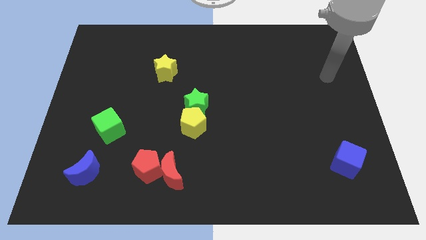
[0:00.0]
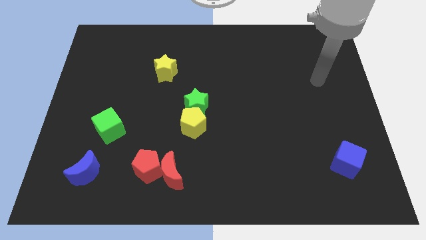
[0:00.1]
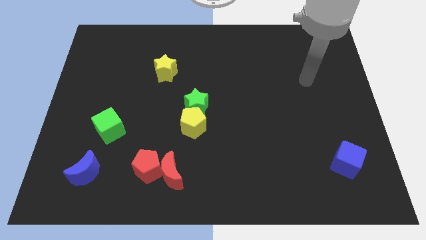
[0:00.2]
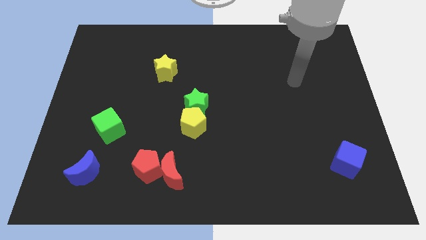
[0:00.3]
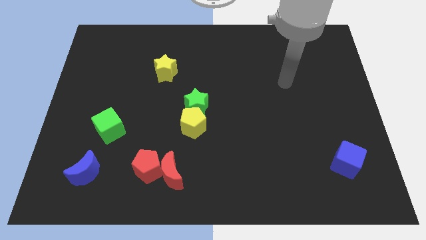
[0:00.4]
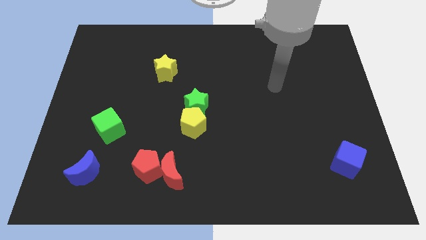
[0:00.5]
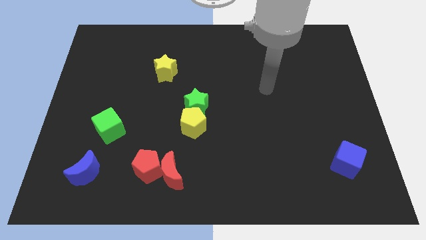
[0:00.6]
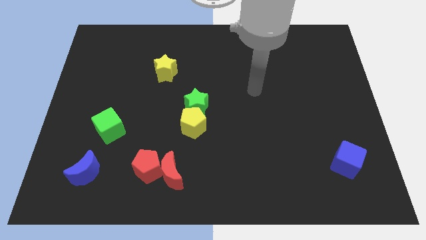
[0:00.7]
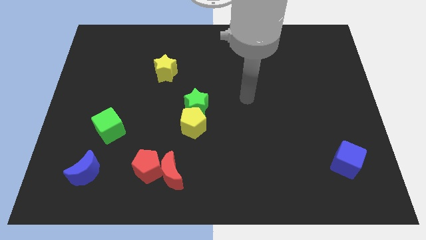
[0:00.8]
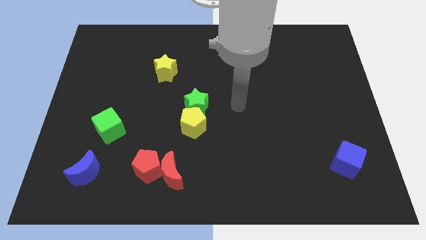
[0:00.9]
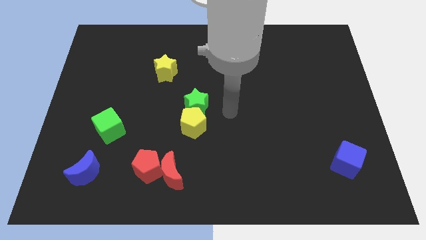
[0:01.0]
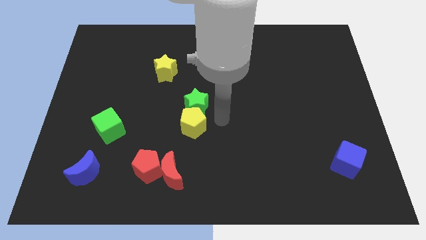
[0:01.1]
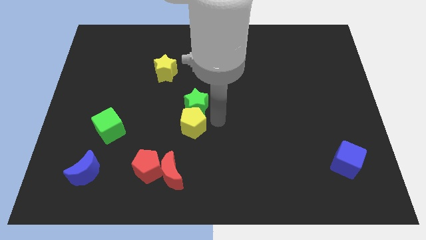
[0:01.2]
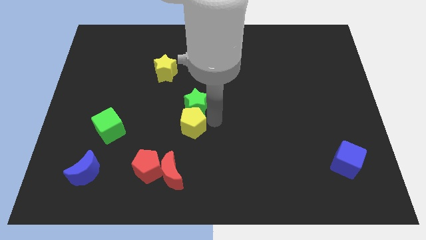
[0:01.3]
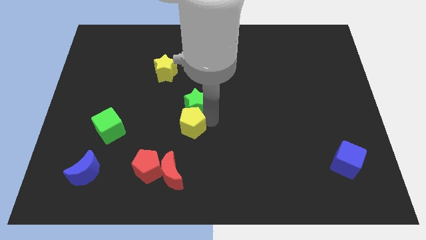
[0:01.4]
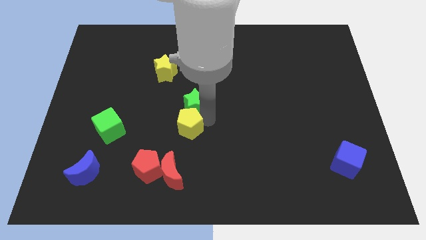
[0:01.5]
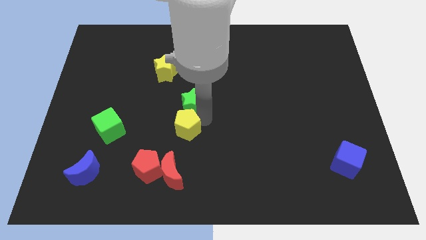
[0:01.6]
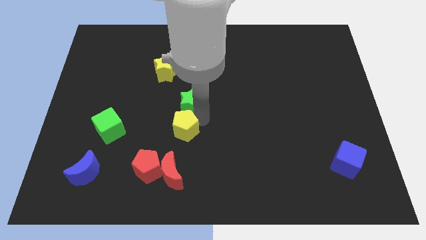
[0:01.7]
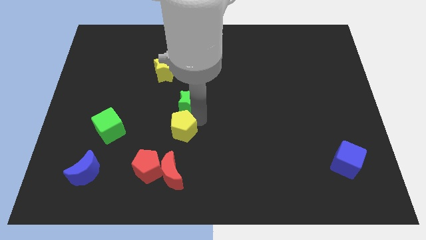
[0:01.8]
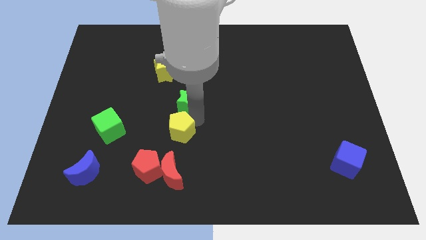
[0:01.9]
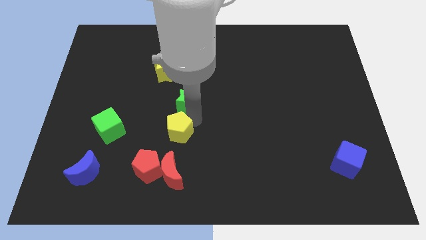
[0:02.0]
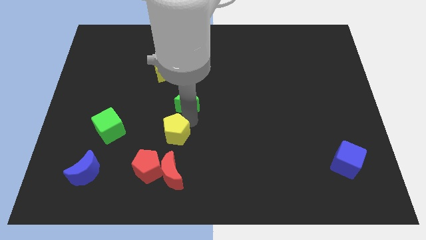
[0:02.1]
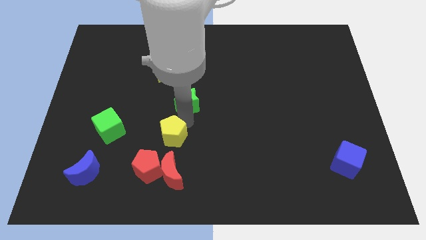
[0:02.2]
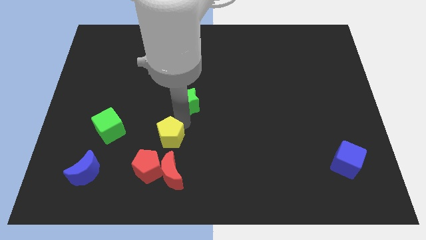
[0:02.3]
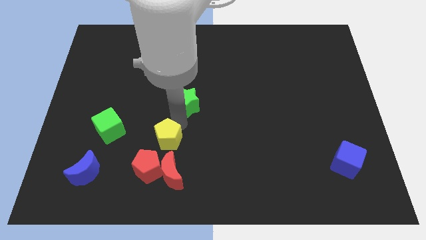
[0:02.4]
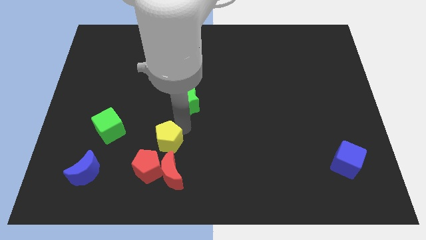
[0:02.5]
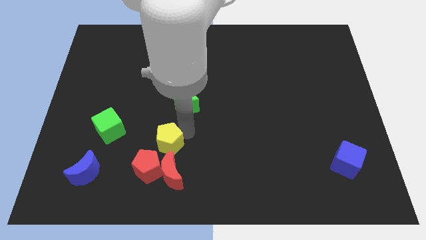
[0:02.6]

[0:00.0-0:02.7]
slightly move the yellow pentagon downwards and then left

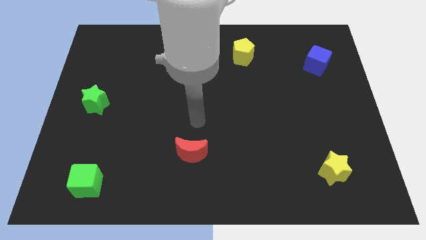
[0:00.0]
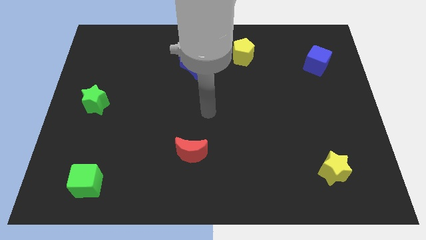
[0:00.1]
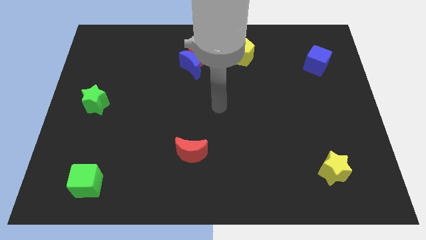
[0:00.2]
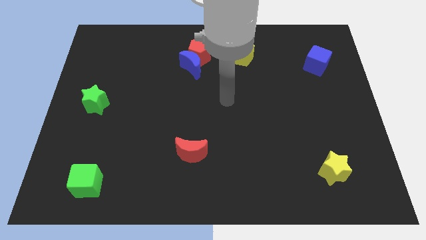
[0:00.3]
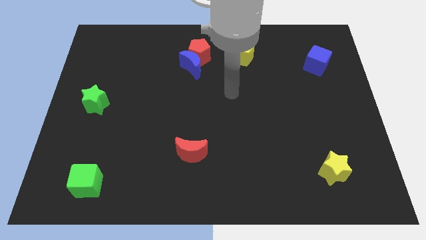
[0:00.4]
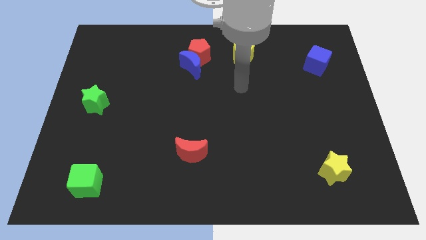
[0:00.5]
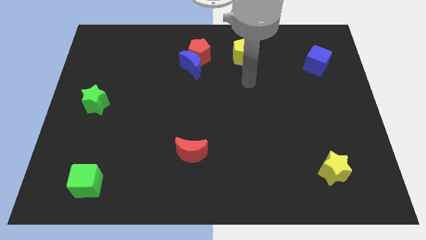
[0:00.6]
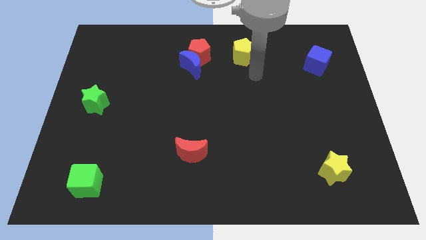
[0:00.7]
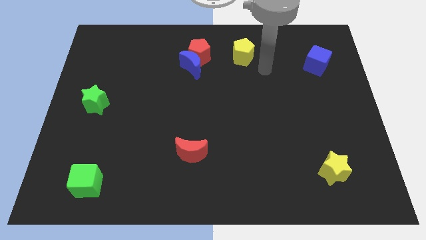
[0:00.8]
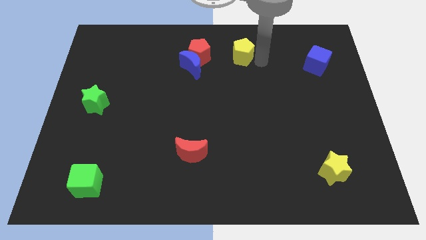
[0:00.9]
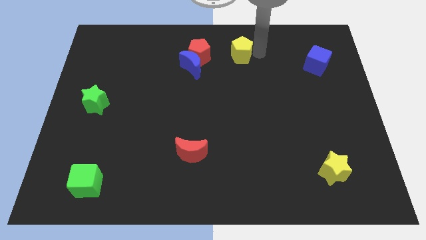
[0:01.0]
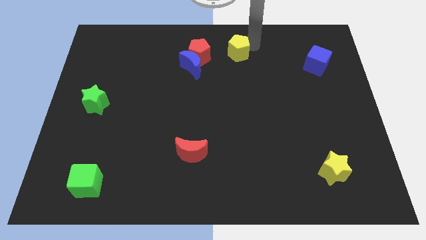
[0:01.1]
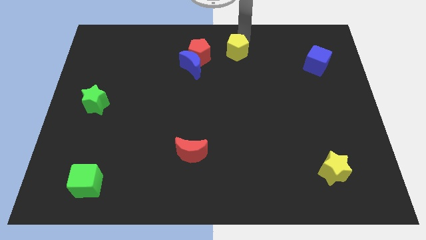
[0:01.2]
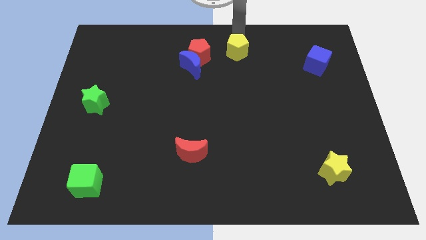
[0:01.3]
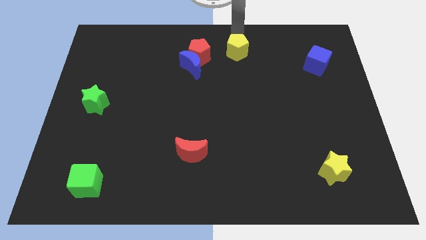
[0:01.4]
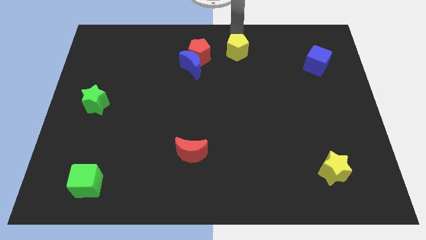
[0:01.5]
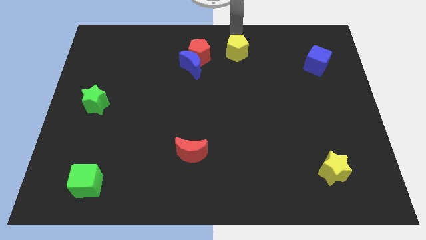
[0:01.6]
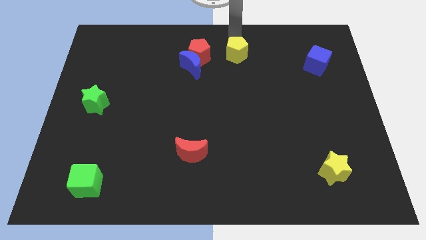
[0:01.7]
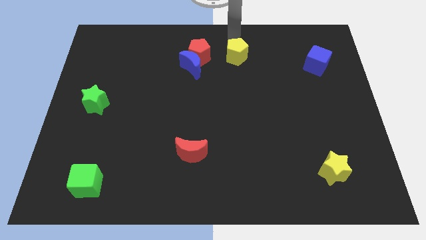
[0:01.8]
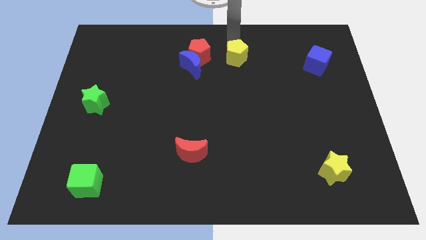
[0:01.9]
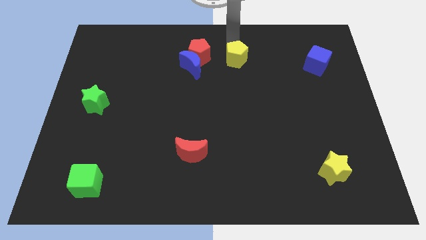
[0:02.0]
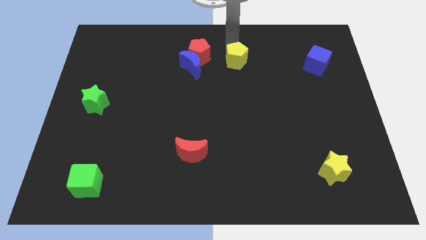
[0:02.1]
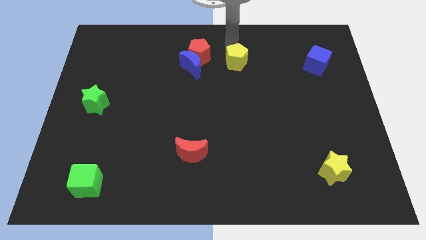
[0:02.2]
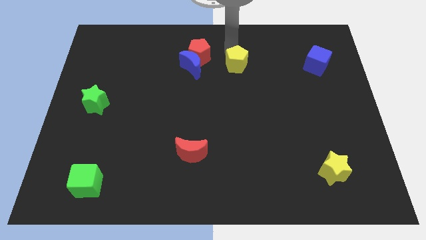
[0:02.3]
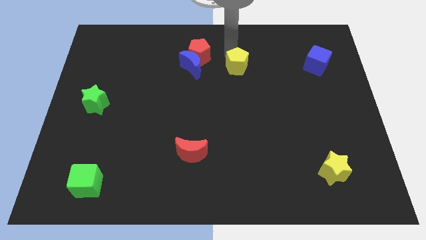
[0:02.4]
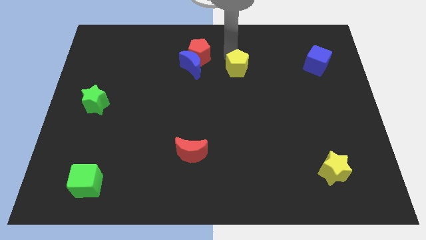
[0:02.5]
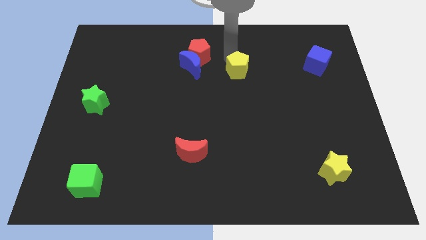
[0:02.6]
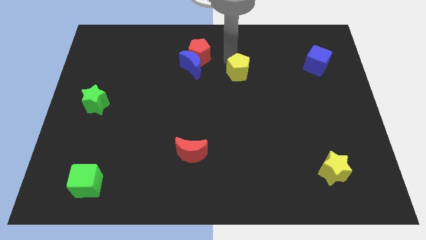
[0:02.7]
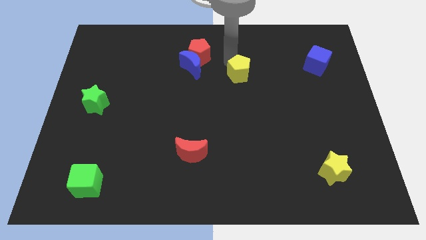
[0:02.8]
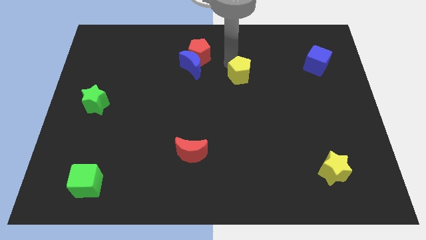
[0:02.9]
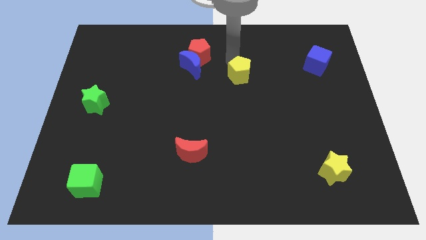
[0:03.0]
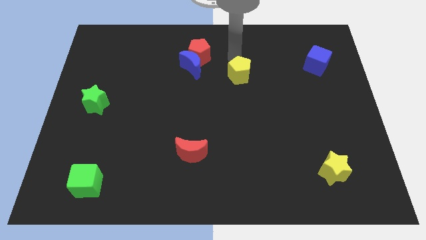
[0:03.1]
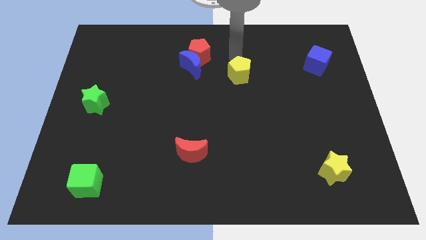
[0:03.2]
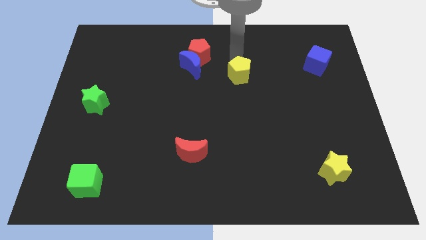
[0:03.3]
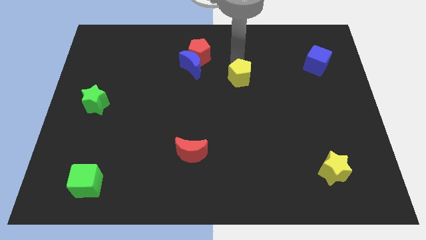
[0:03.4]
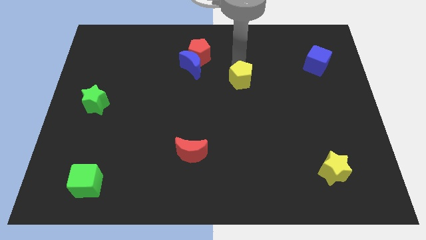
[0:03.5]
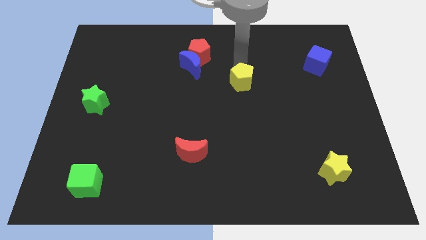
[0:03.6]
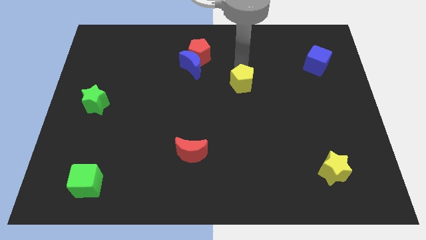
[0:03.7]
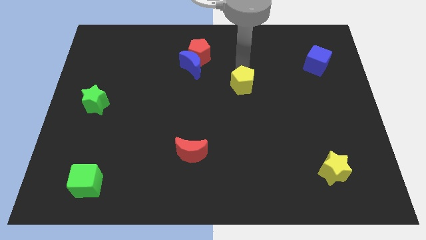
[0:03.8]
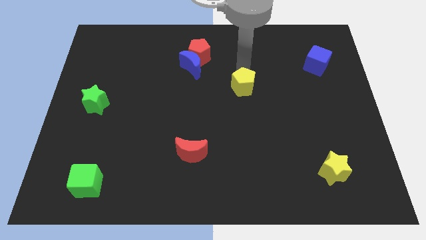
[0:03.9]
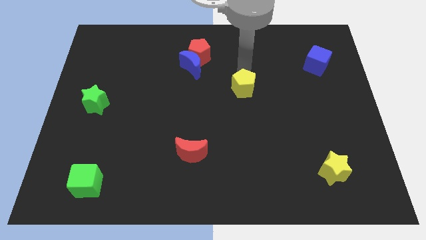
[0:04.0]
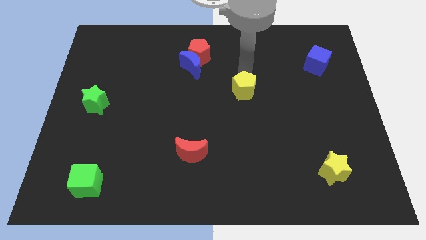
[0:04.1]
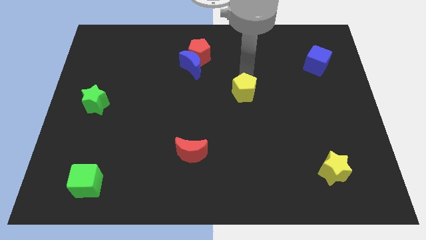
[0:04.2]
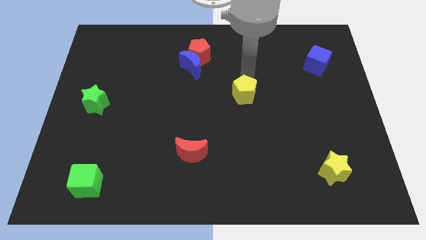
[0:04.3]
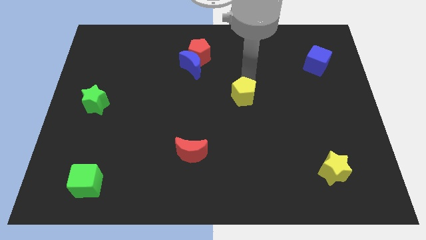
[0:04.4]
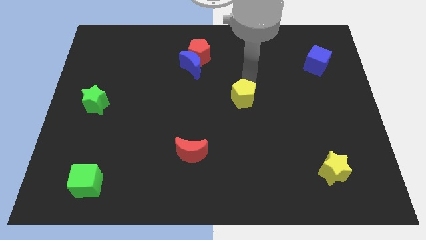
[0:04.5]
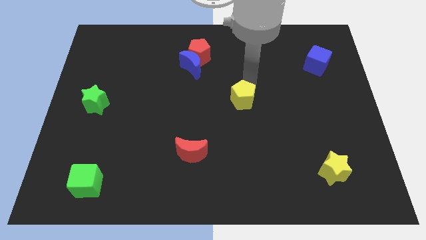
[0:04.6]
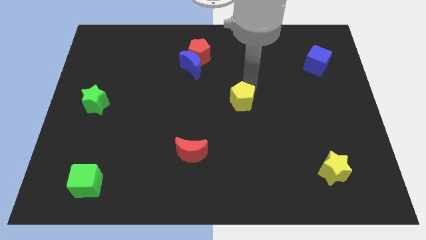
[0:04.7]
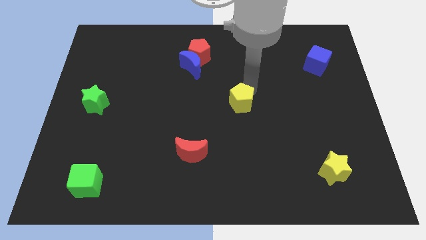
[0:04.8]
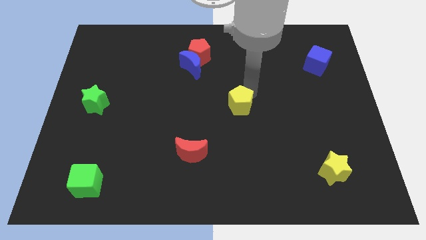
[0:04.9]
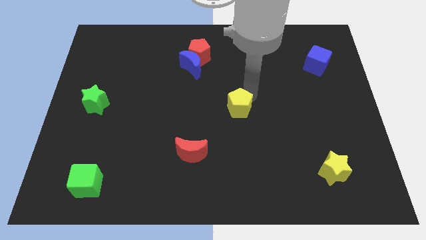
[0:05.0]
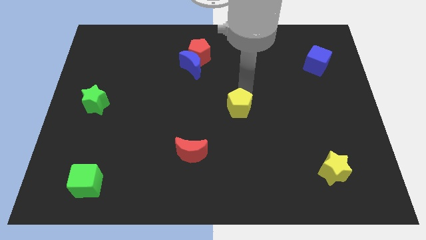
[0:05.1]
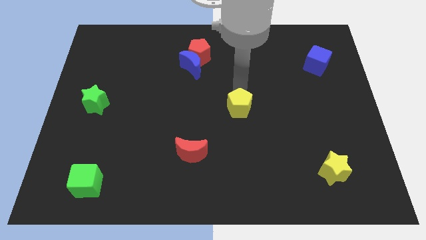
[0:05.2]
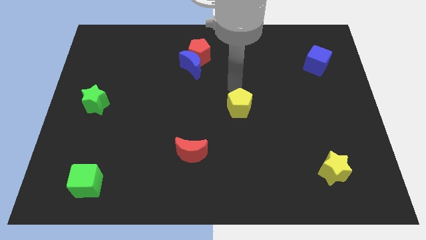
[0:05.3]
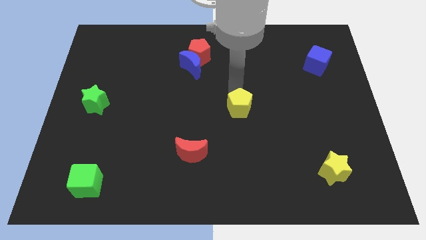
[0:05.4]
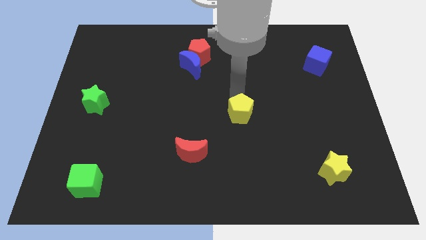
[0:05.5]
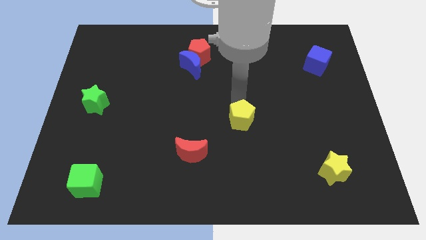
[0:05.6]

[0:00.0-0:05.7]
move the yellow pentagon down
